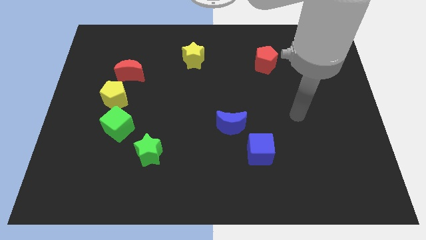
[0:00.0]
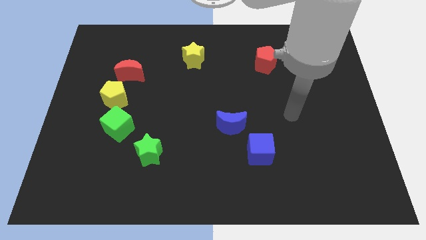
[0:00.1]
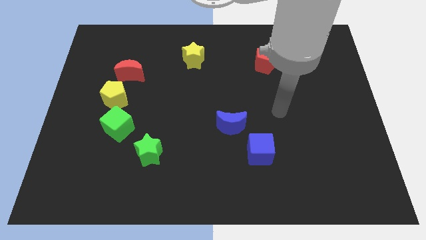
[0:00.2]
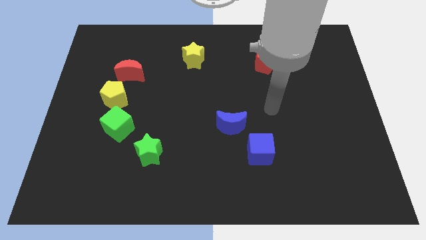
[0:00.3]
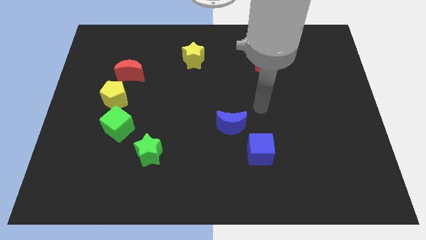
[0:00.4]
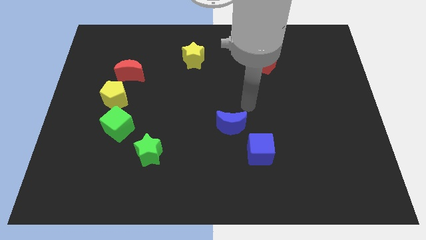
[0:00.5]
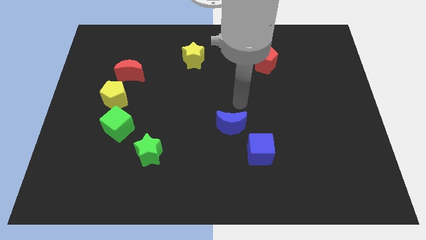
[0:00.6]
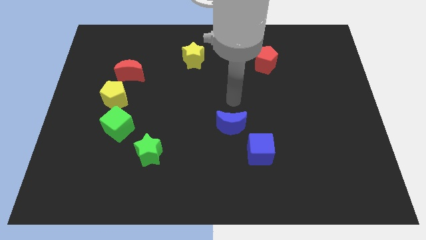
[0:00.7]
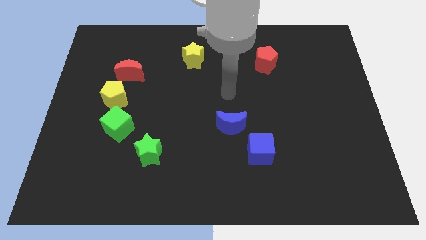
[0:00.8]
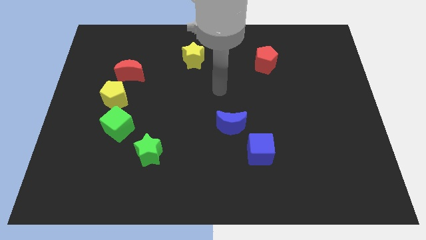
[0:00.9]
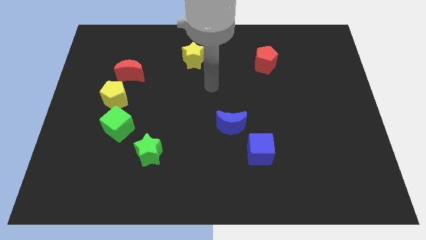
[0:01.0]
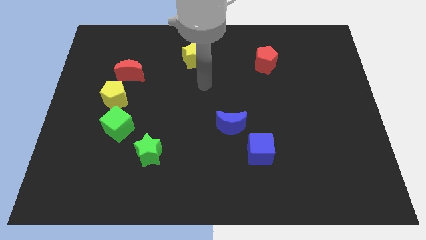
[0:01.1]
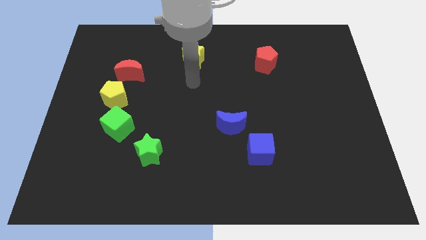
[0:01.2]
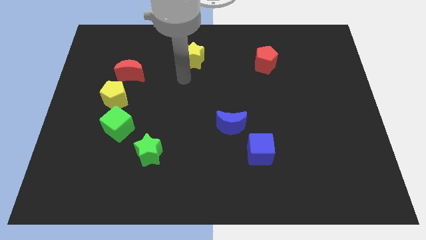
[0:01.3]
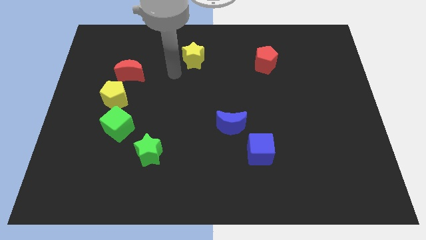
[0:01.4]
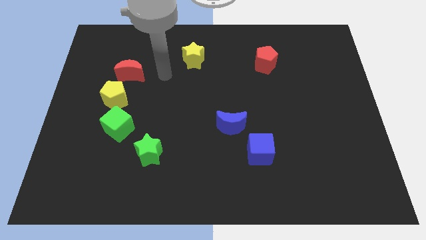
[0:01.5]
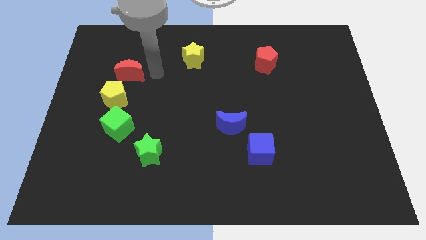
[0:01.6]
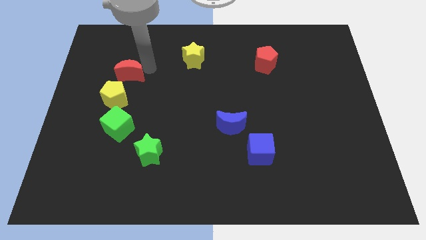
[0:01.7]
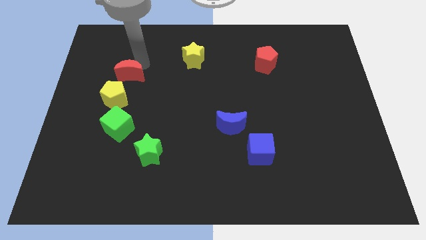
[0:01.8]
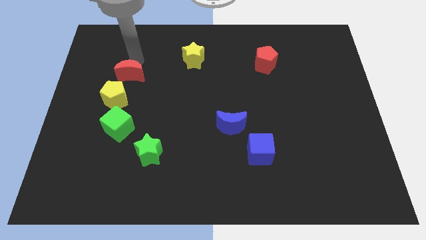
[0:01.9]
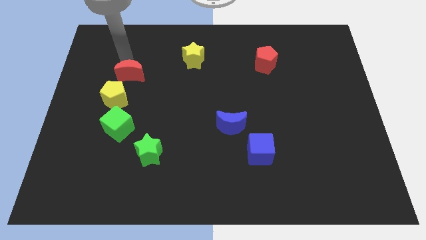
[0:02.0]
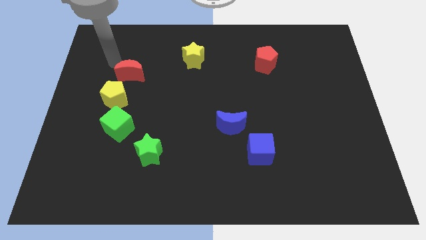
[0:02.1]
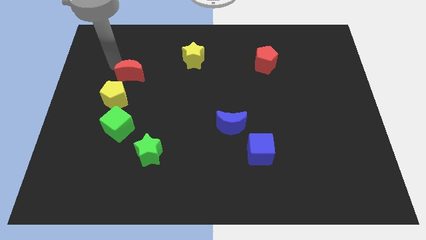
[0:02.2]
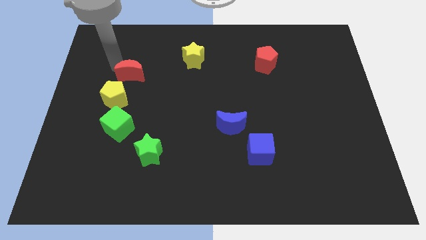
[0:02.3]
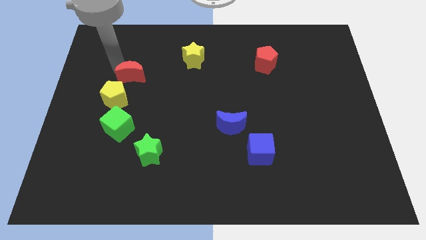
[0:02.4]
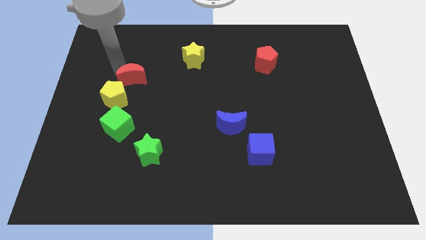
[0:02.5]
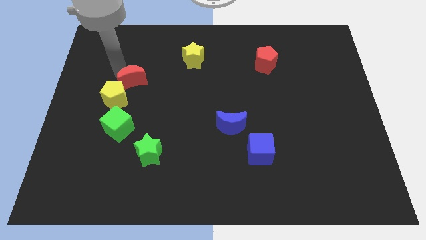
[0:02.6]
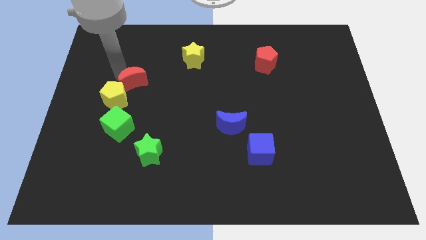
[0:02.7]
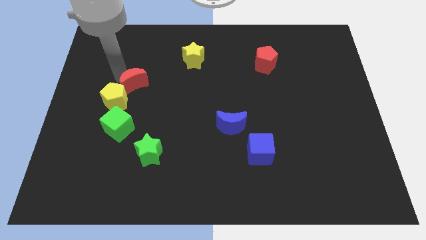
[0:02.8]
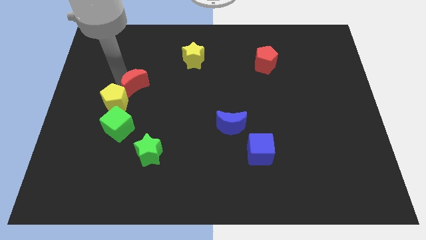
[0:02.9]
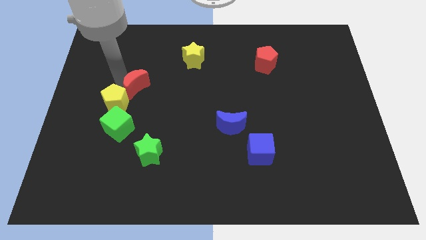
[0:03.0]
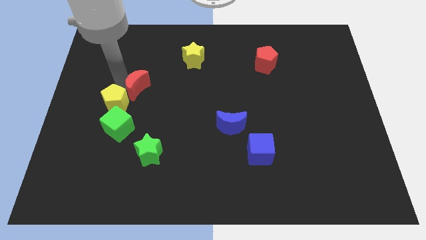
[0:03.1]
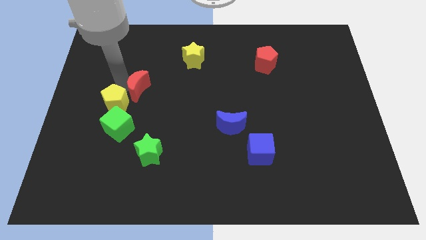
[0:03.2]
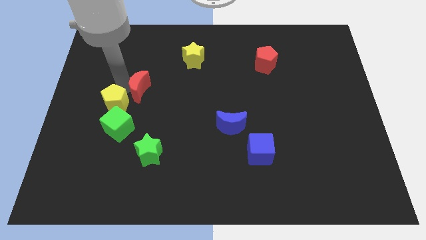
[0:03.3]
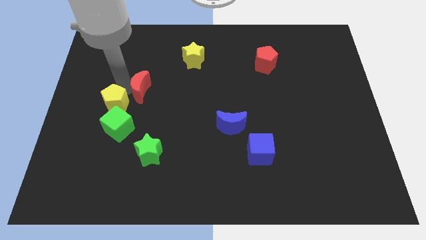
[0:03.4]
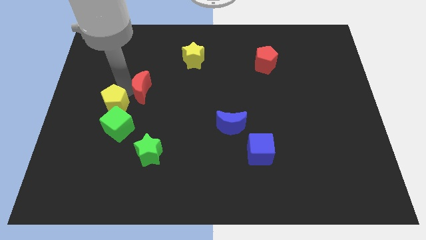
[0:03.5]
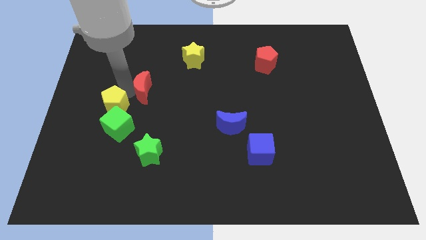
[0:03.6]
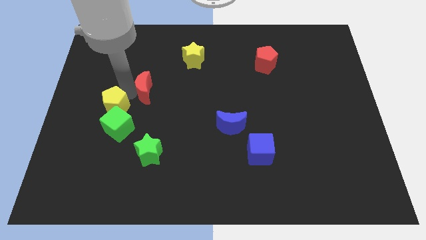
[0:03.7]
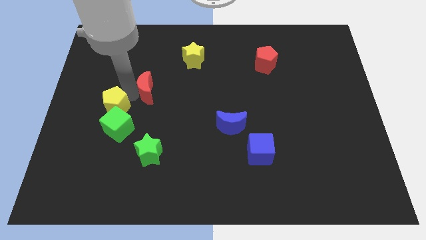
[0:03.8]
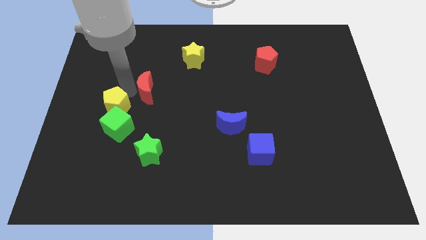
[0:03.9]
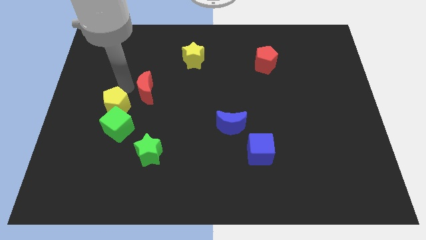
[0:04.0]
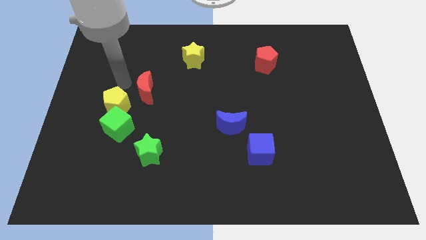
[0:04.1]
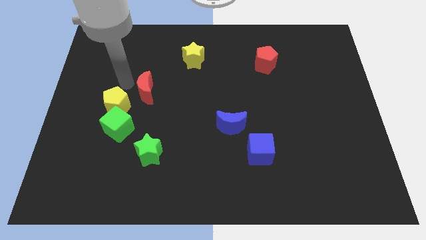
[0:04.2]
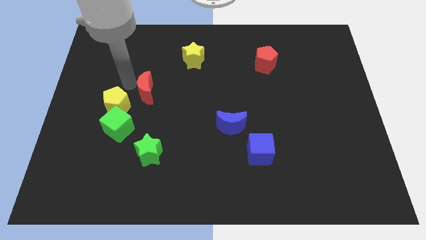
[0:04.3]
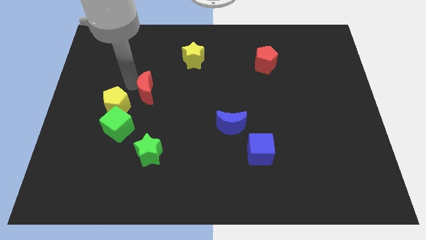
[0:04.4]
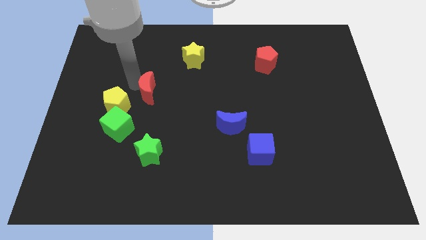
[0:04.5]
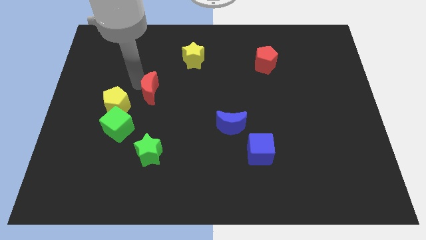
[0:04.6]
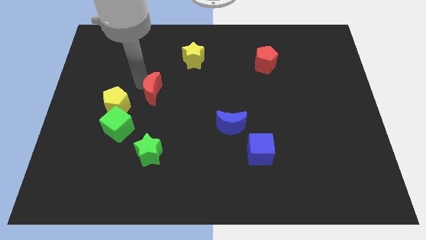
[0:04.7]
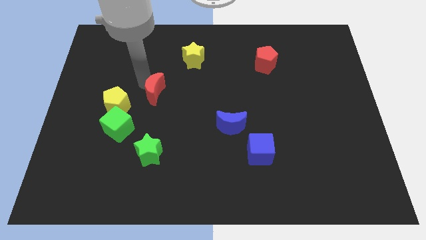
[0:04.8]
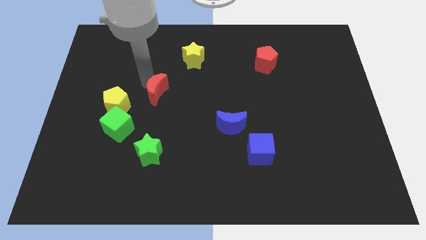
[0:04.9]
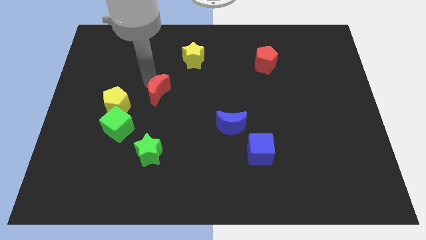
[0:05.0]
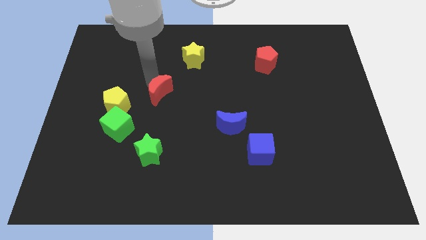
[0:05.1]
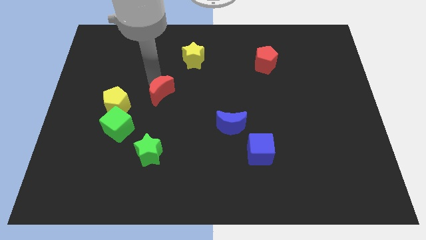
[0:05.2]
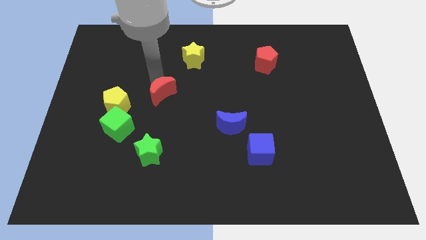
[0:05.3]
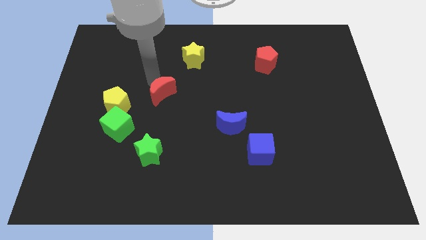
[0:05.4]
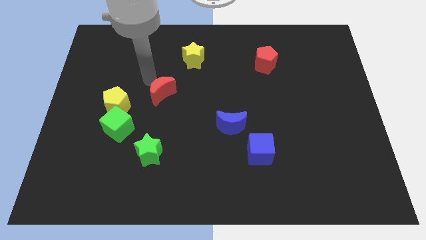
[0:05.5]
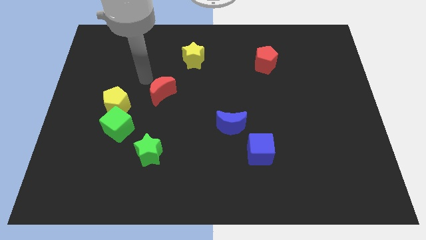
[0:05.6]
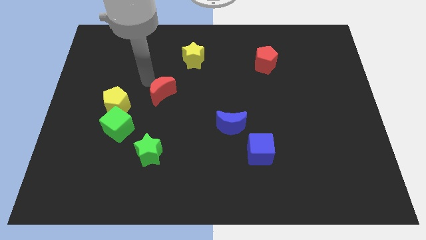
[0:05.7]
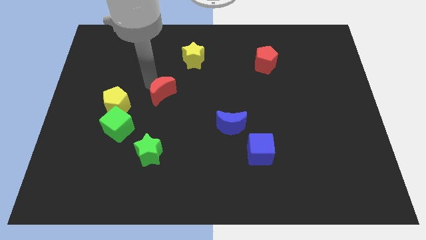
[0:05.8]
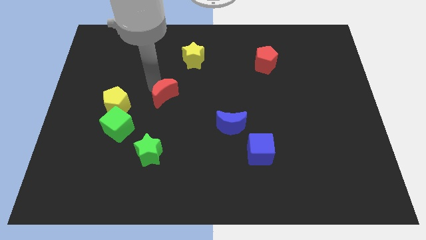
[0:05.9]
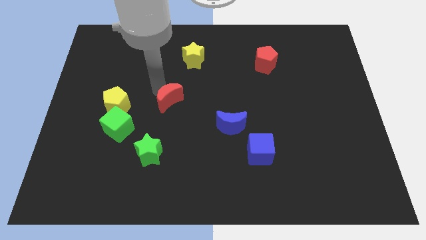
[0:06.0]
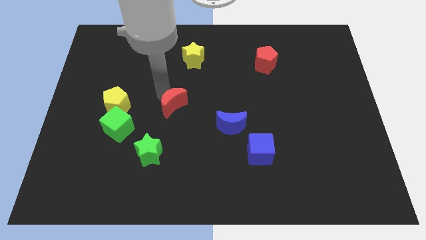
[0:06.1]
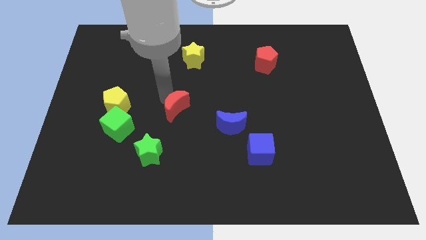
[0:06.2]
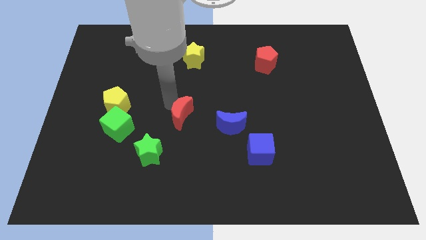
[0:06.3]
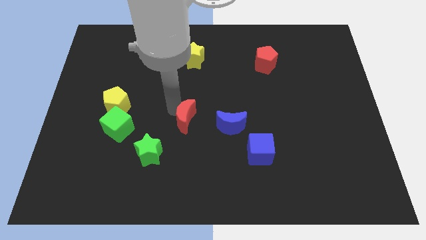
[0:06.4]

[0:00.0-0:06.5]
push the red moon downwards and to the right

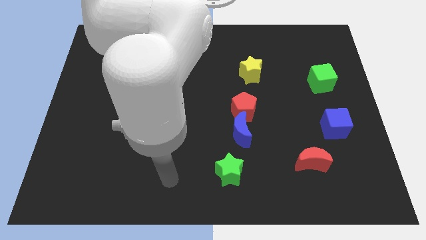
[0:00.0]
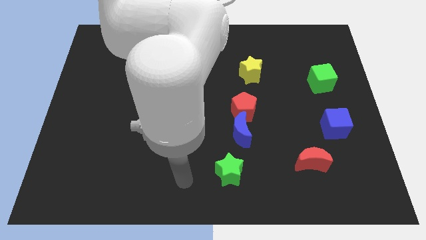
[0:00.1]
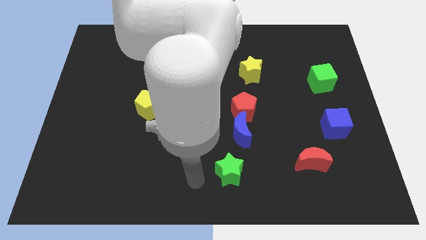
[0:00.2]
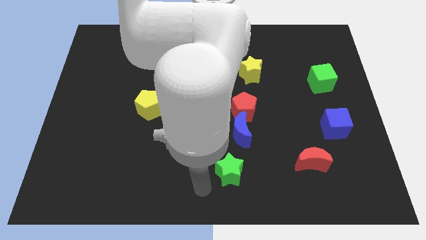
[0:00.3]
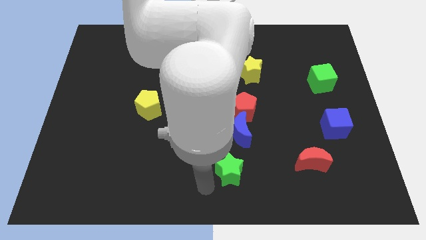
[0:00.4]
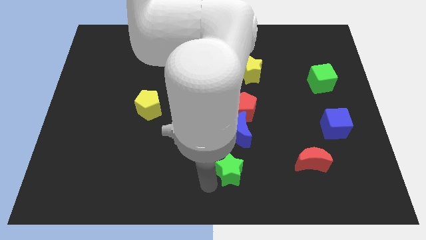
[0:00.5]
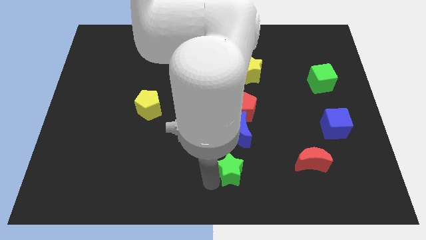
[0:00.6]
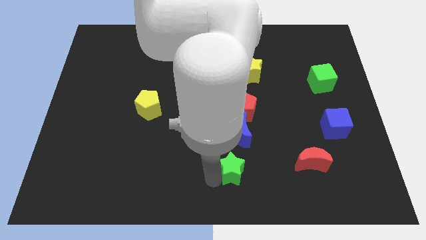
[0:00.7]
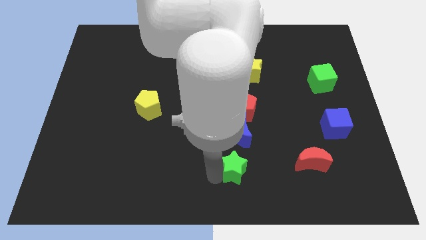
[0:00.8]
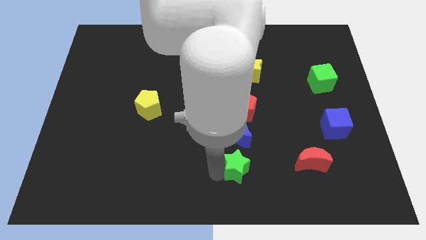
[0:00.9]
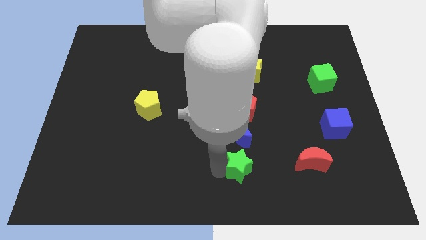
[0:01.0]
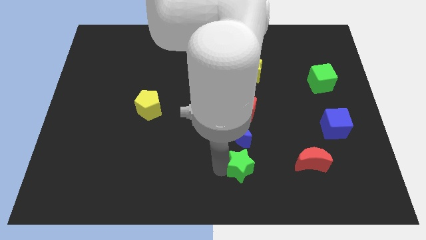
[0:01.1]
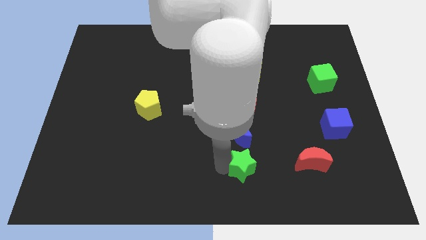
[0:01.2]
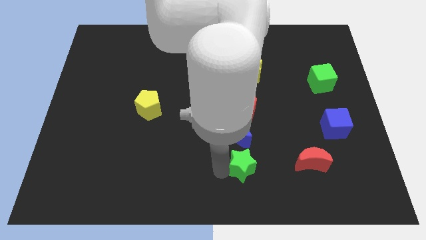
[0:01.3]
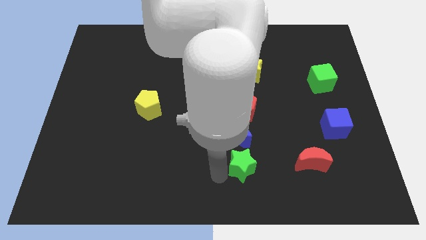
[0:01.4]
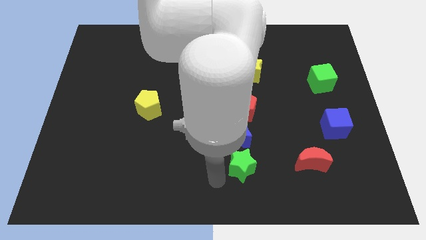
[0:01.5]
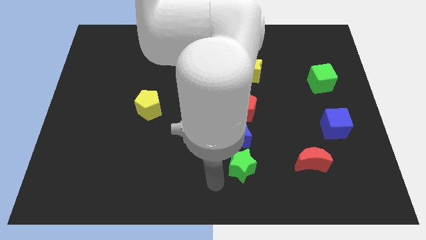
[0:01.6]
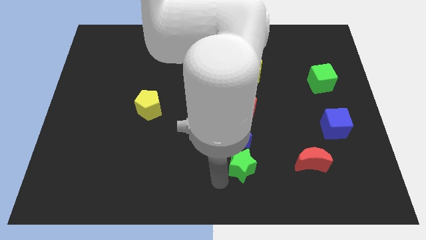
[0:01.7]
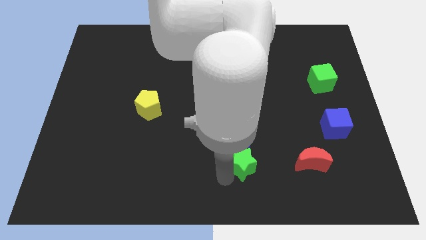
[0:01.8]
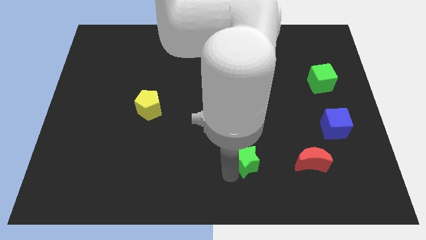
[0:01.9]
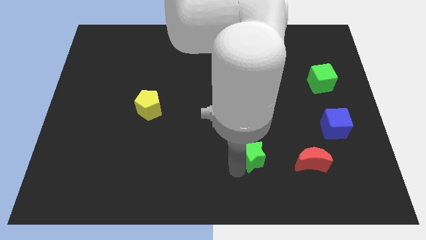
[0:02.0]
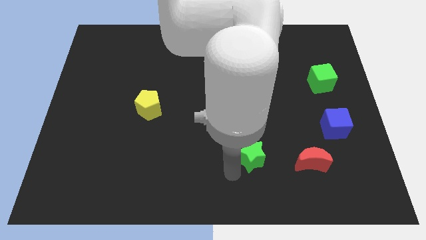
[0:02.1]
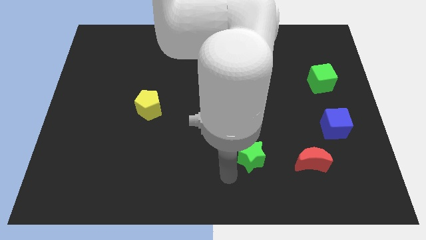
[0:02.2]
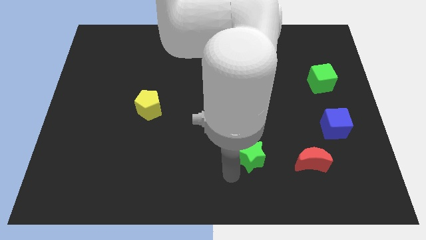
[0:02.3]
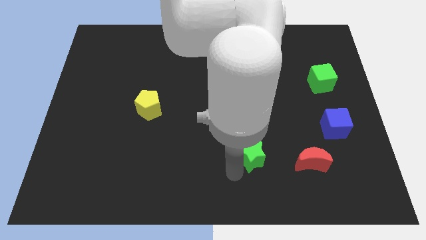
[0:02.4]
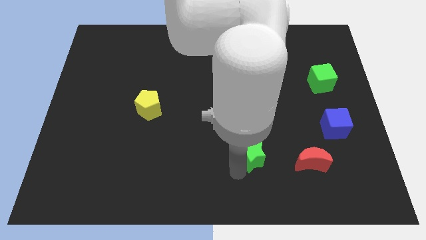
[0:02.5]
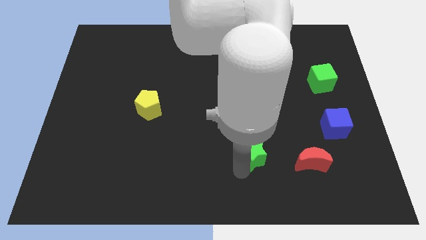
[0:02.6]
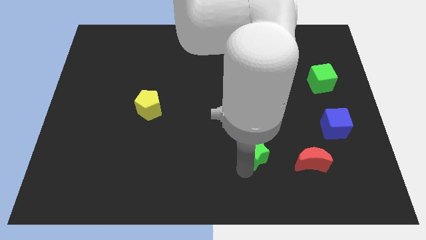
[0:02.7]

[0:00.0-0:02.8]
slightly slide the green star up and to the right diagonally
